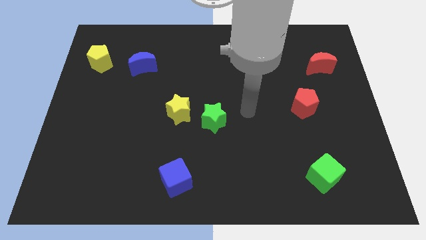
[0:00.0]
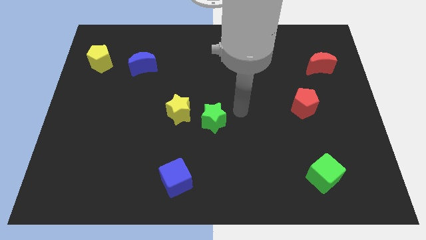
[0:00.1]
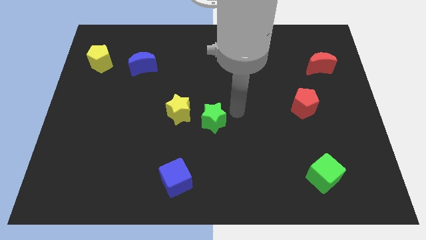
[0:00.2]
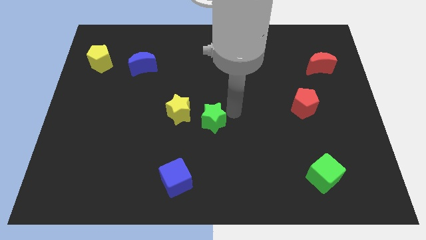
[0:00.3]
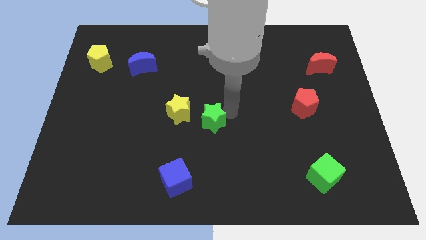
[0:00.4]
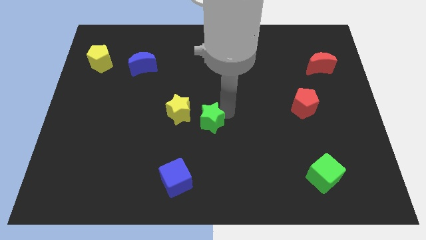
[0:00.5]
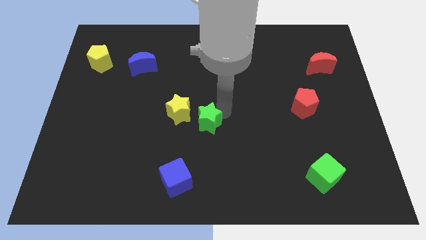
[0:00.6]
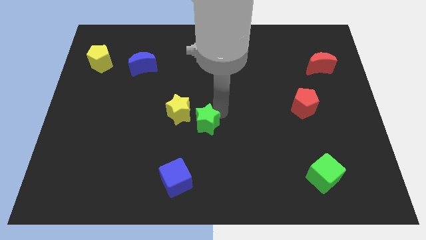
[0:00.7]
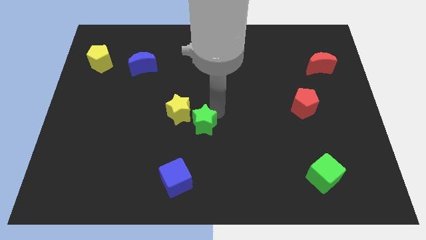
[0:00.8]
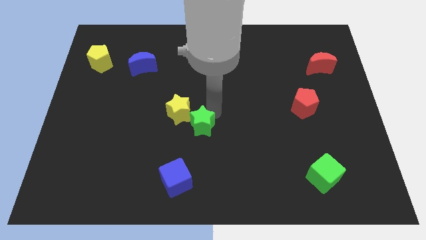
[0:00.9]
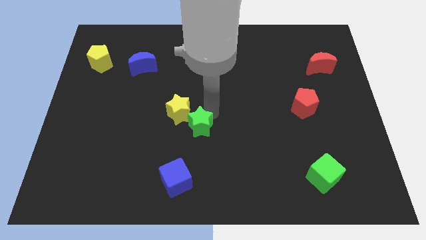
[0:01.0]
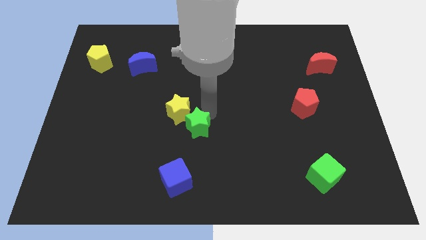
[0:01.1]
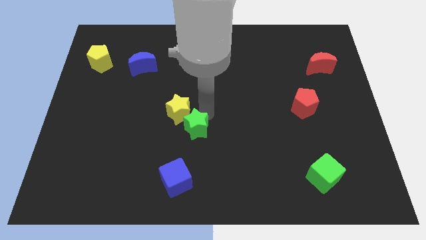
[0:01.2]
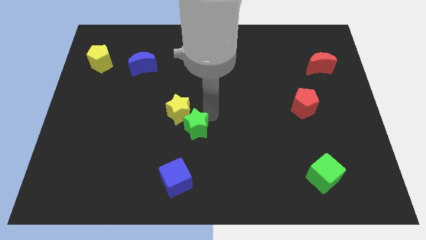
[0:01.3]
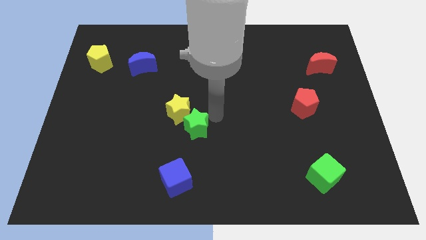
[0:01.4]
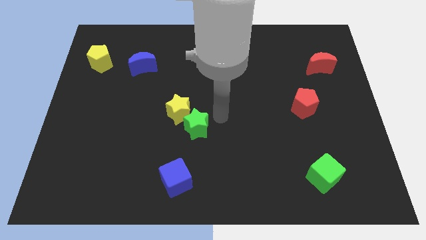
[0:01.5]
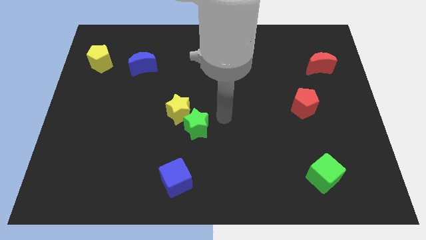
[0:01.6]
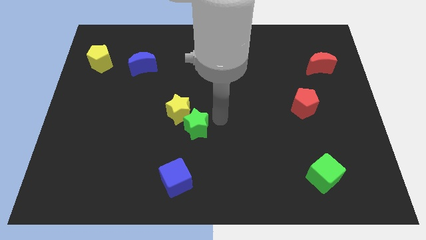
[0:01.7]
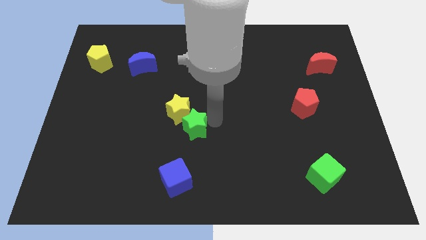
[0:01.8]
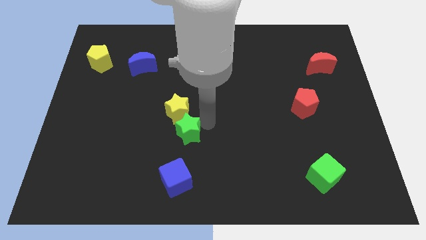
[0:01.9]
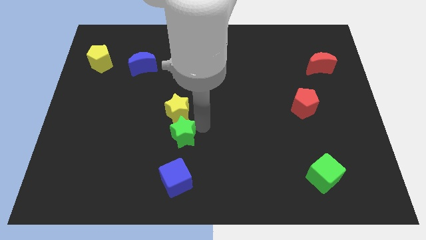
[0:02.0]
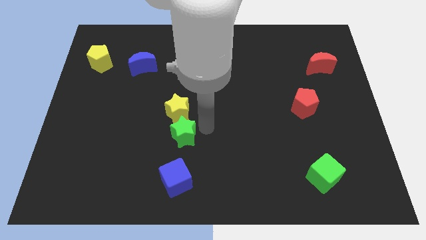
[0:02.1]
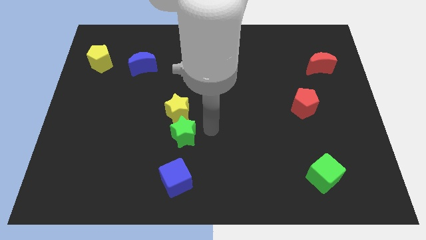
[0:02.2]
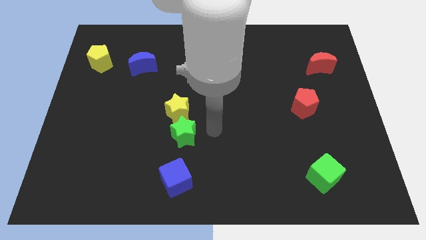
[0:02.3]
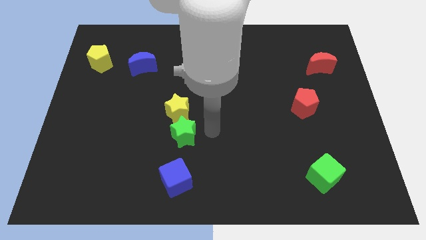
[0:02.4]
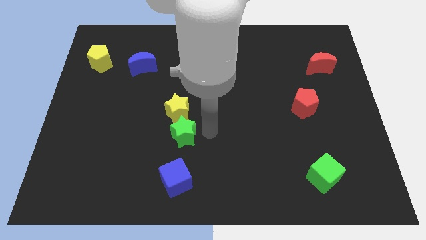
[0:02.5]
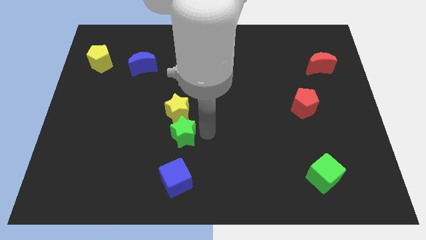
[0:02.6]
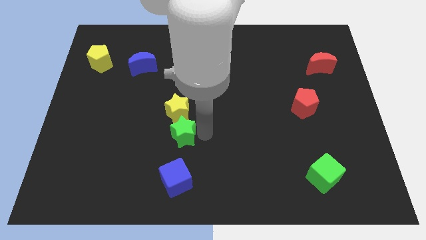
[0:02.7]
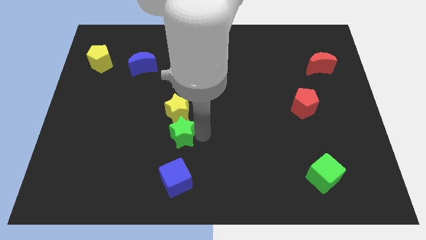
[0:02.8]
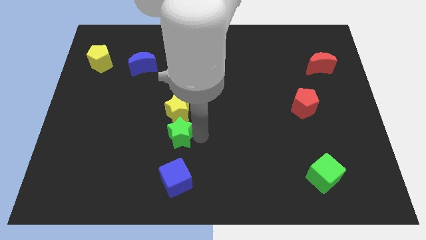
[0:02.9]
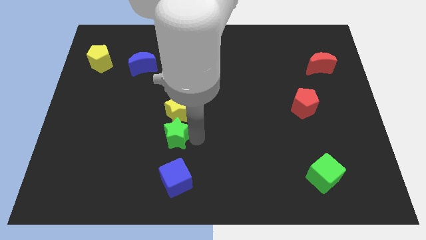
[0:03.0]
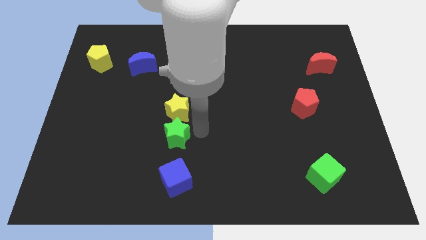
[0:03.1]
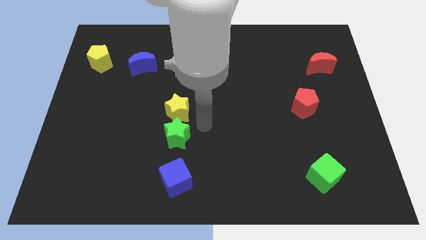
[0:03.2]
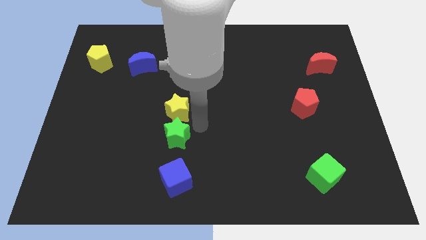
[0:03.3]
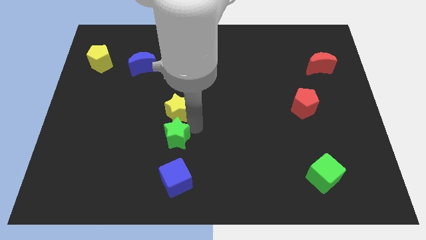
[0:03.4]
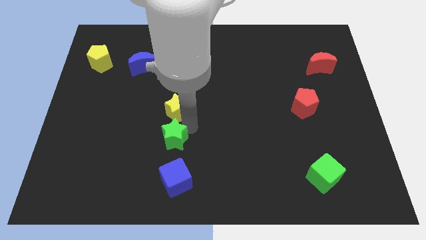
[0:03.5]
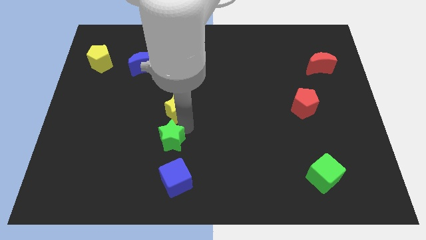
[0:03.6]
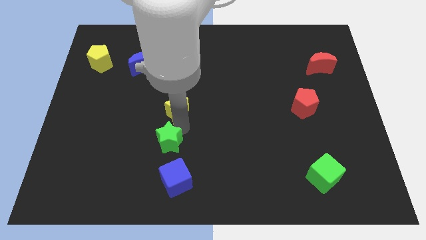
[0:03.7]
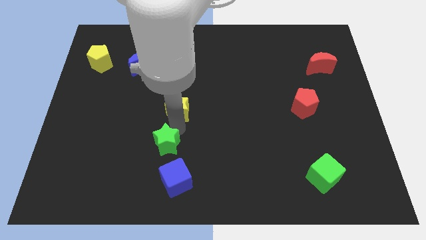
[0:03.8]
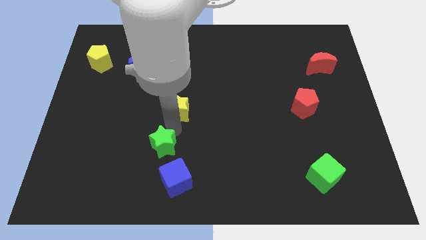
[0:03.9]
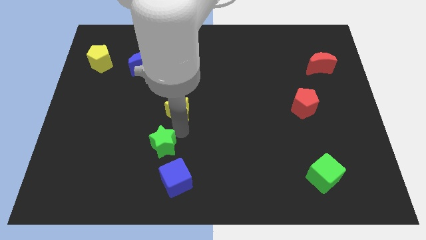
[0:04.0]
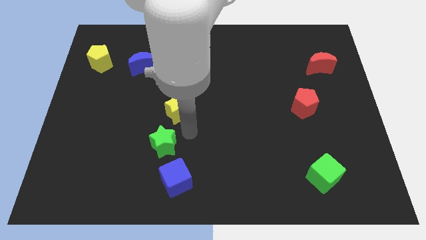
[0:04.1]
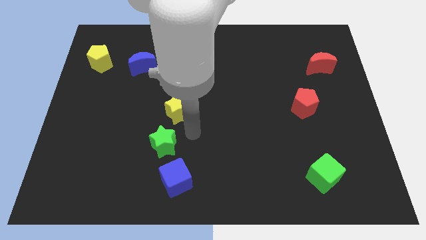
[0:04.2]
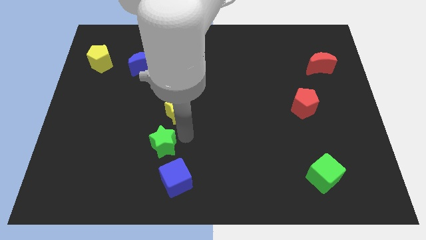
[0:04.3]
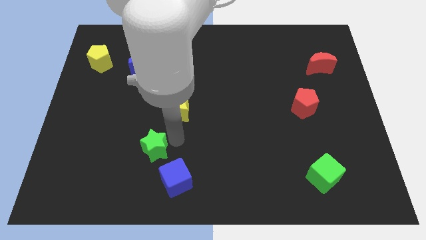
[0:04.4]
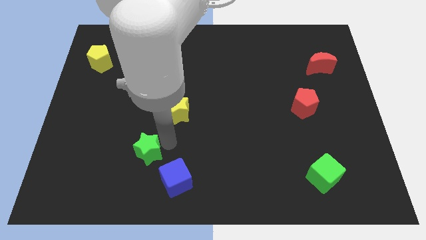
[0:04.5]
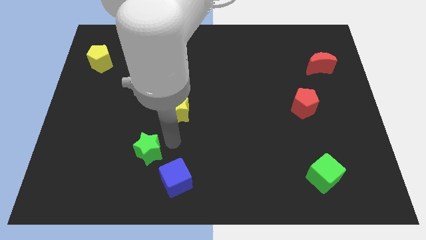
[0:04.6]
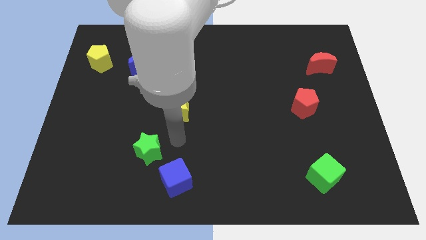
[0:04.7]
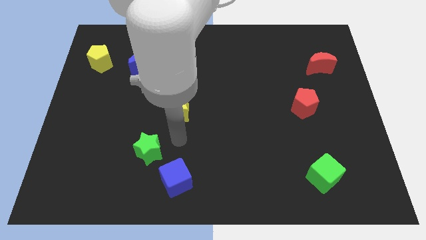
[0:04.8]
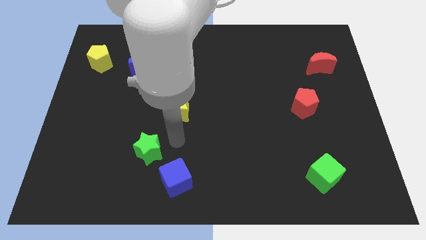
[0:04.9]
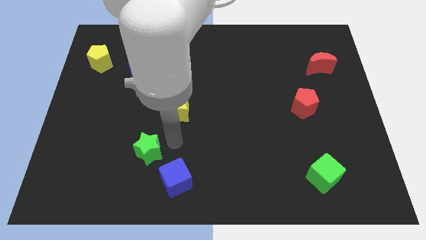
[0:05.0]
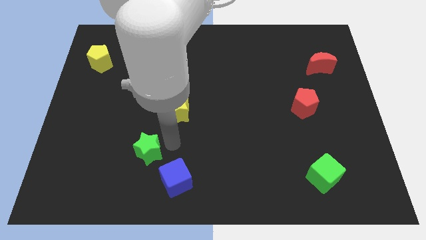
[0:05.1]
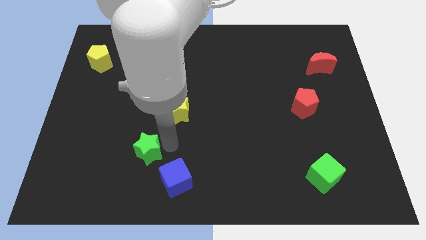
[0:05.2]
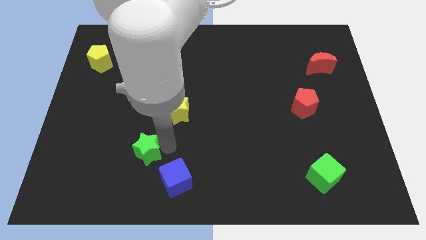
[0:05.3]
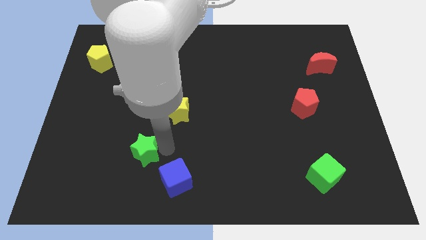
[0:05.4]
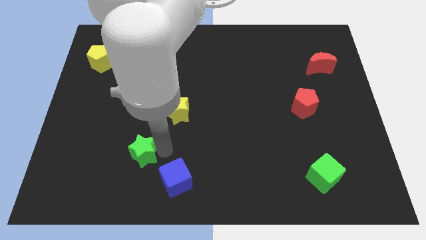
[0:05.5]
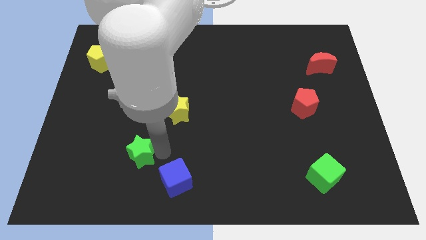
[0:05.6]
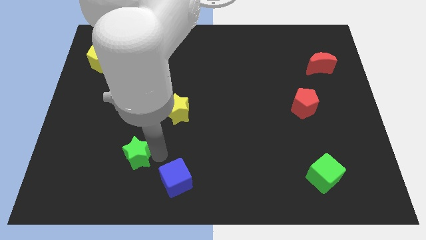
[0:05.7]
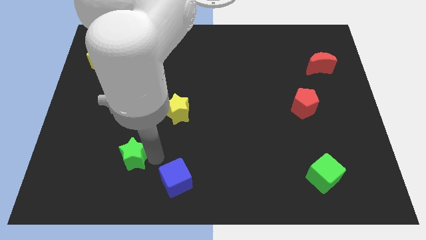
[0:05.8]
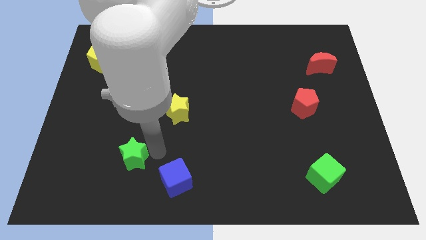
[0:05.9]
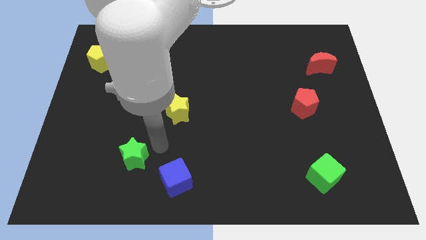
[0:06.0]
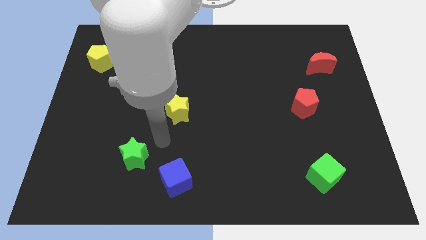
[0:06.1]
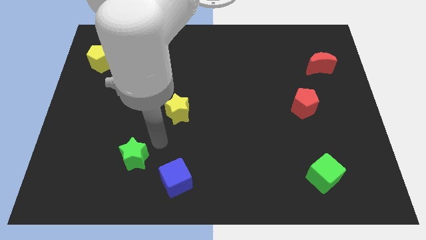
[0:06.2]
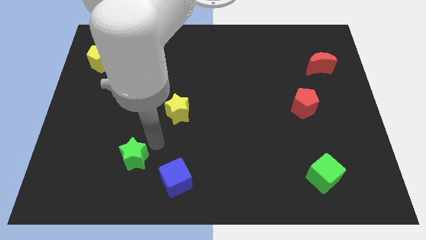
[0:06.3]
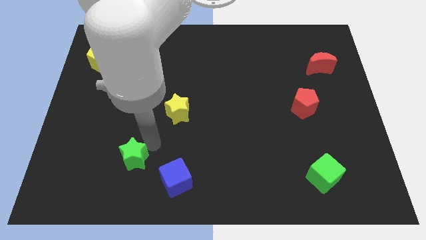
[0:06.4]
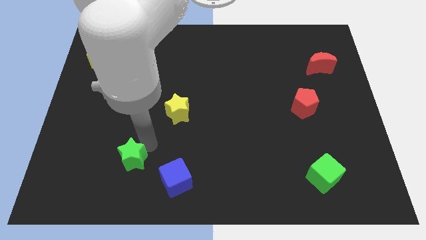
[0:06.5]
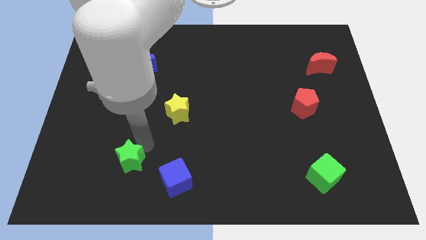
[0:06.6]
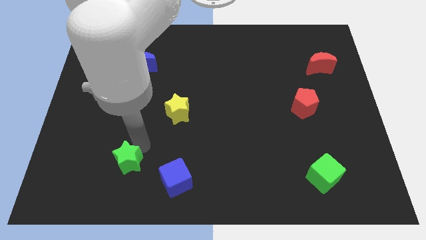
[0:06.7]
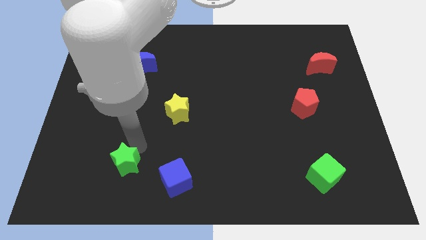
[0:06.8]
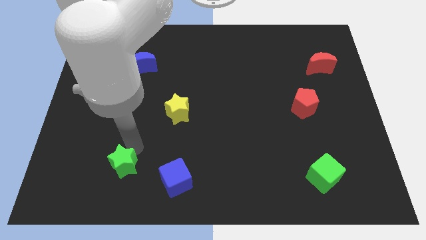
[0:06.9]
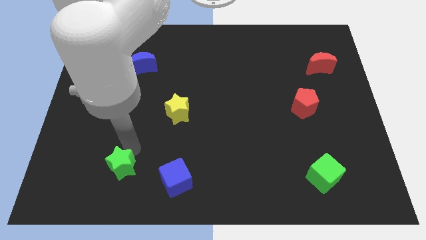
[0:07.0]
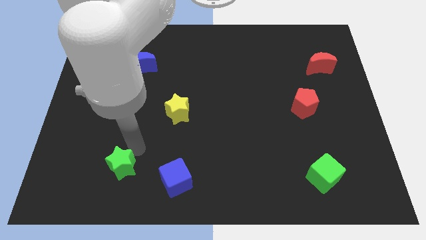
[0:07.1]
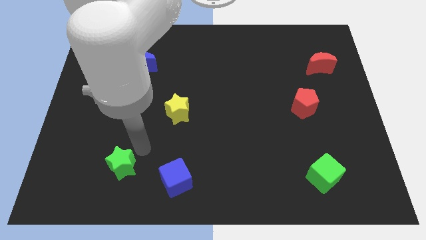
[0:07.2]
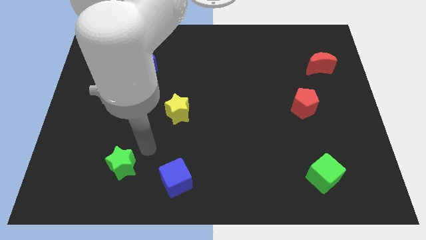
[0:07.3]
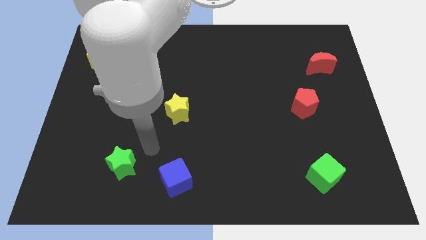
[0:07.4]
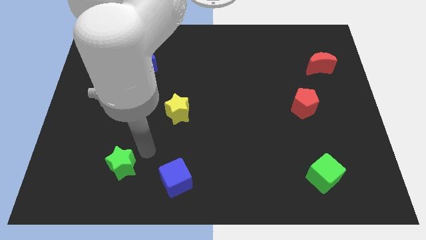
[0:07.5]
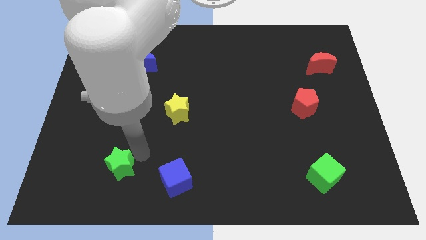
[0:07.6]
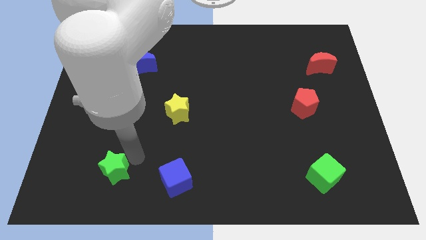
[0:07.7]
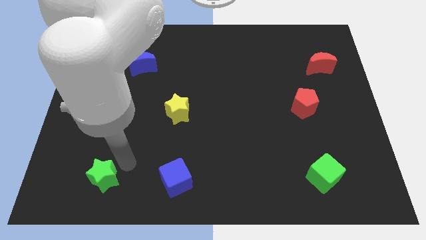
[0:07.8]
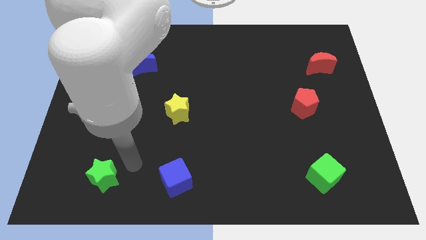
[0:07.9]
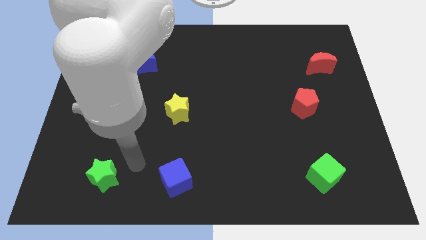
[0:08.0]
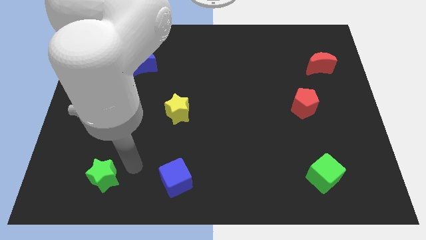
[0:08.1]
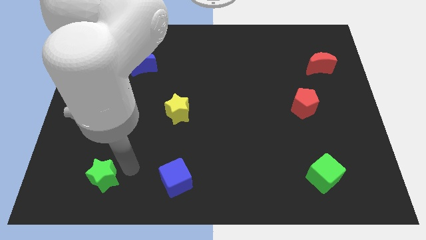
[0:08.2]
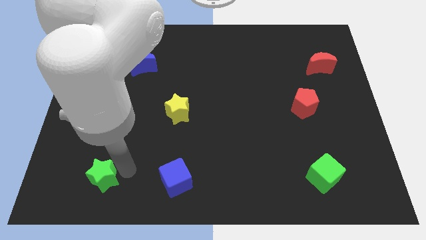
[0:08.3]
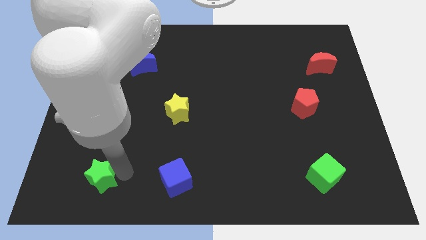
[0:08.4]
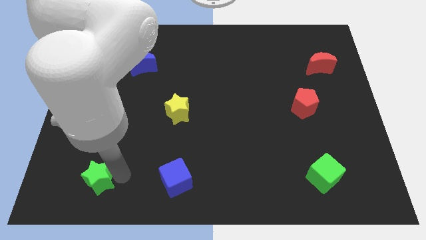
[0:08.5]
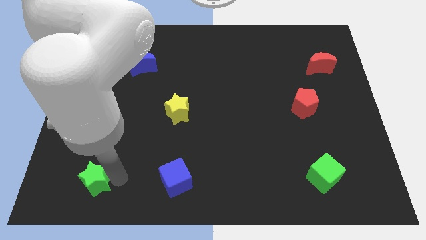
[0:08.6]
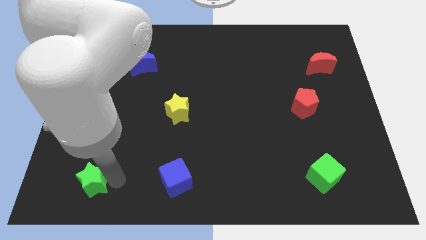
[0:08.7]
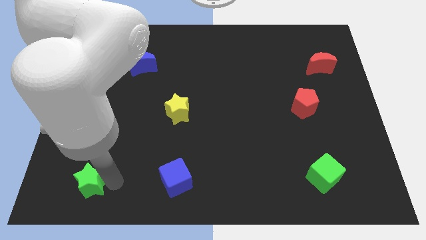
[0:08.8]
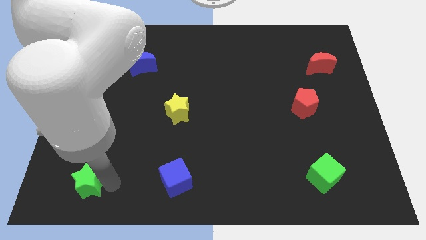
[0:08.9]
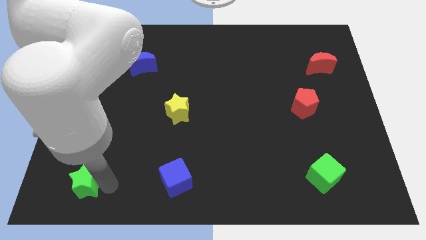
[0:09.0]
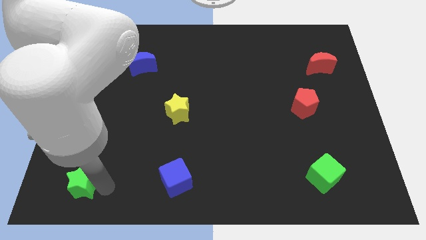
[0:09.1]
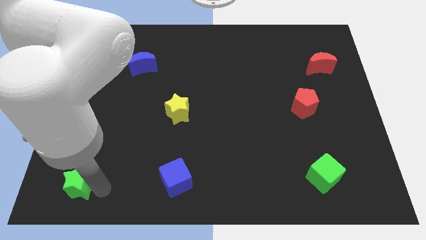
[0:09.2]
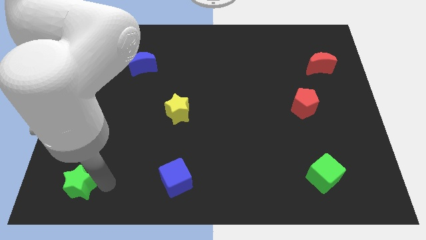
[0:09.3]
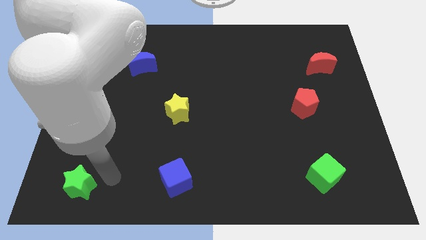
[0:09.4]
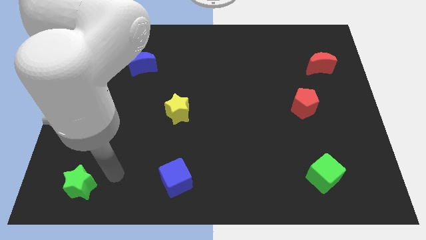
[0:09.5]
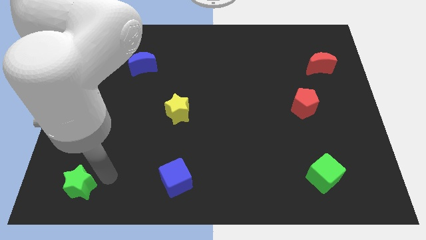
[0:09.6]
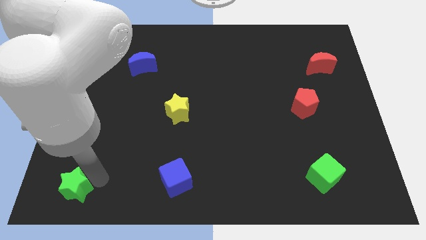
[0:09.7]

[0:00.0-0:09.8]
move the green star to the bottom left
